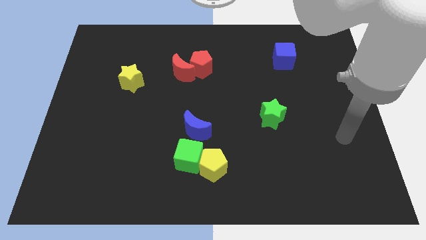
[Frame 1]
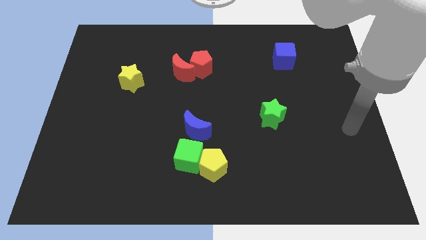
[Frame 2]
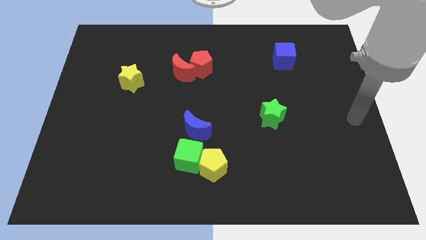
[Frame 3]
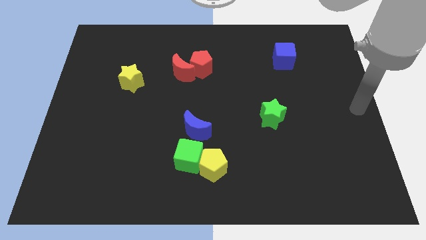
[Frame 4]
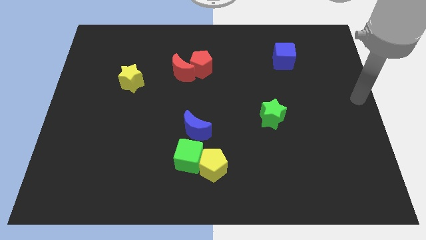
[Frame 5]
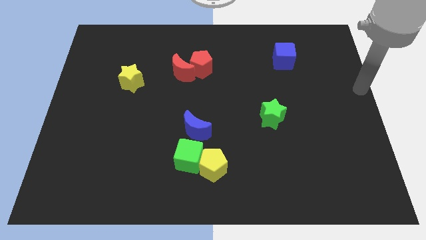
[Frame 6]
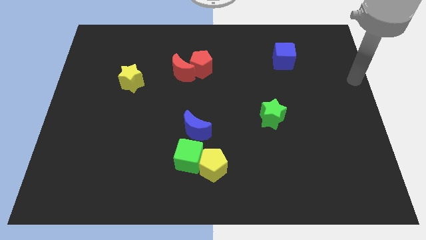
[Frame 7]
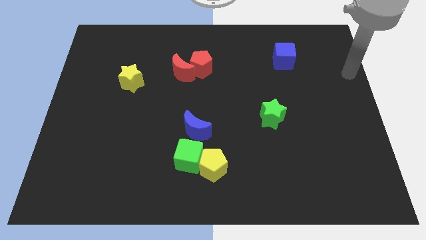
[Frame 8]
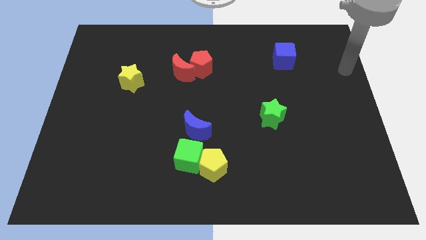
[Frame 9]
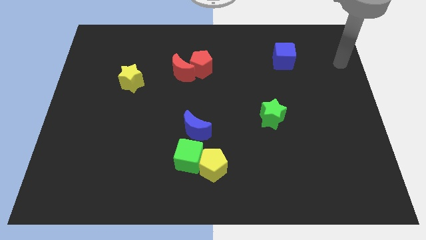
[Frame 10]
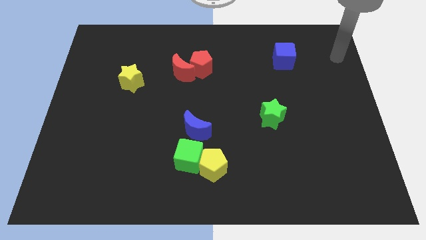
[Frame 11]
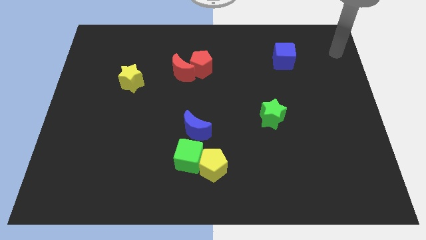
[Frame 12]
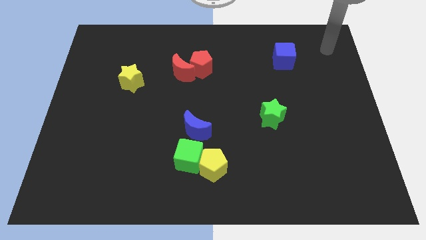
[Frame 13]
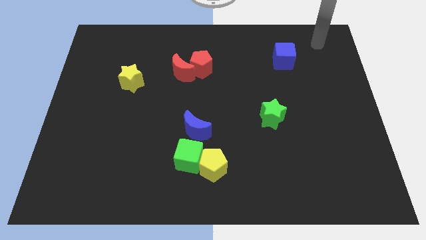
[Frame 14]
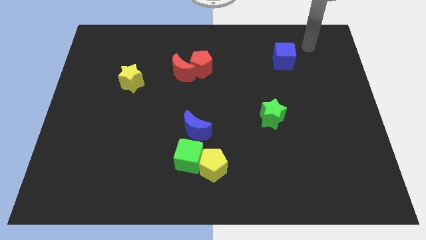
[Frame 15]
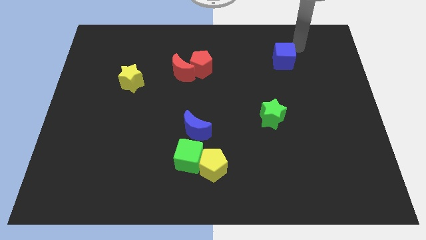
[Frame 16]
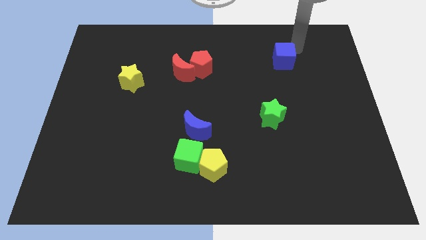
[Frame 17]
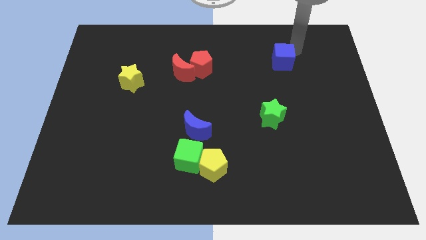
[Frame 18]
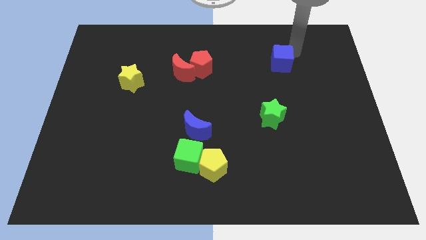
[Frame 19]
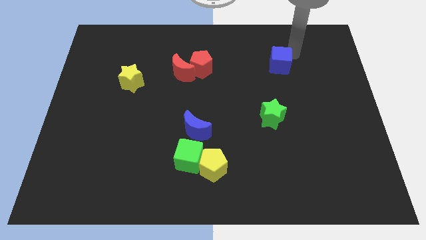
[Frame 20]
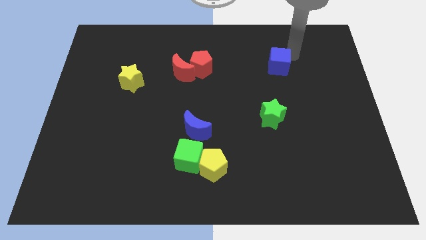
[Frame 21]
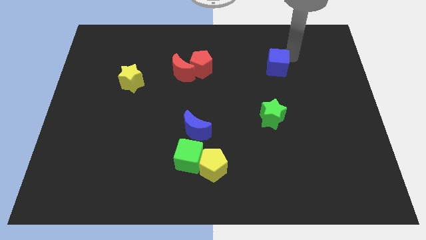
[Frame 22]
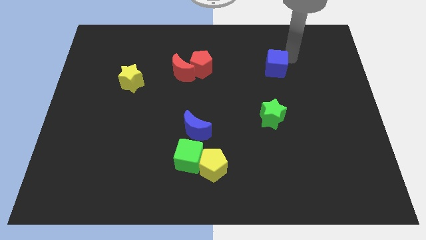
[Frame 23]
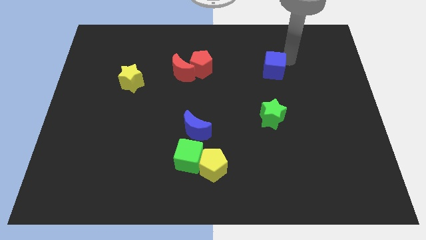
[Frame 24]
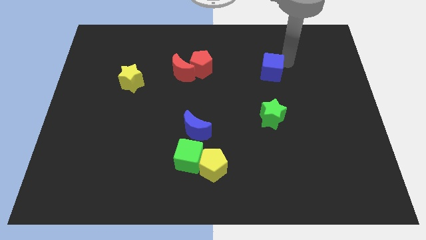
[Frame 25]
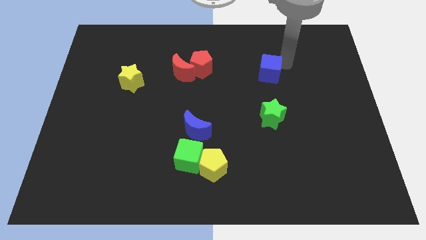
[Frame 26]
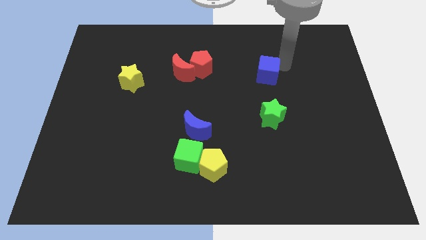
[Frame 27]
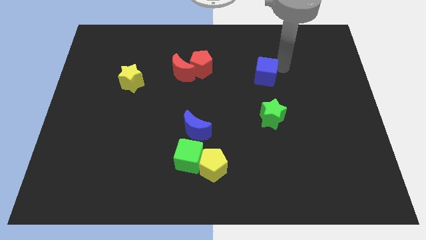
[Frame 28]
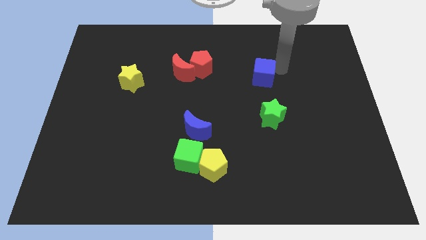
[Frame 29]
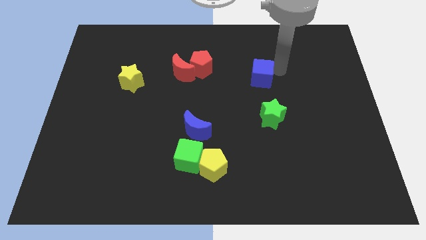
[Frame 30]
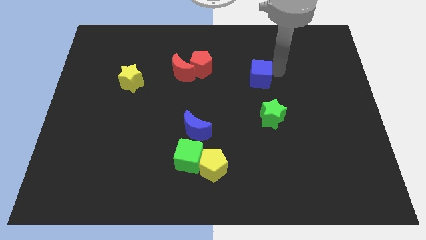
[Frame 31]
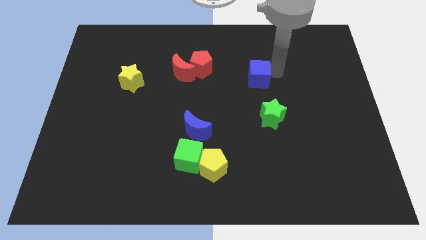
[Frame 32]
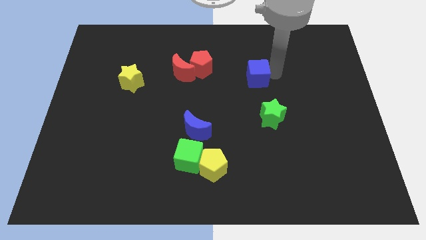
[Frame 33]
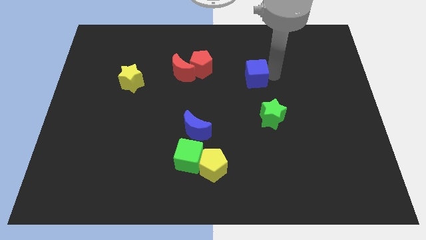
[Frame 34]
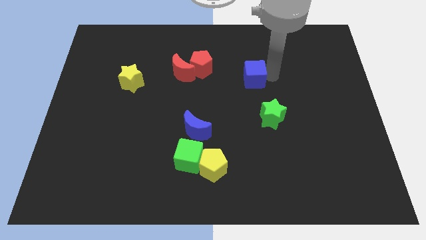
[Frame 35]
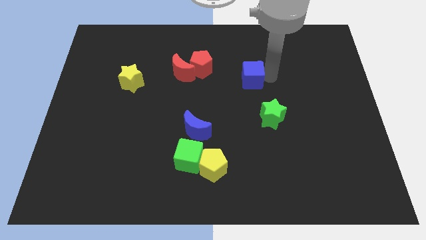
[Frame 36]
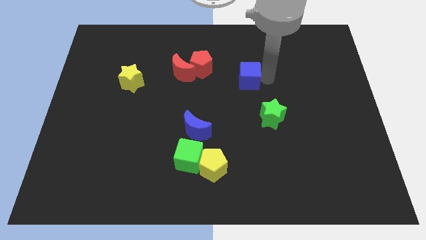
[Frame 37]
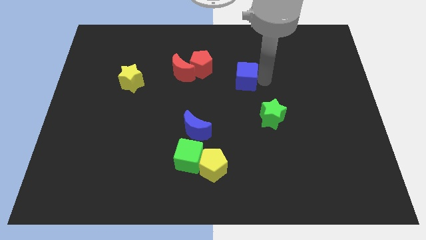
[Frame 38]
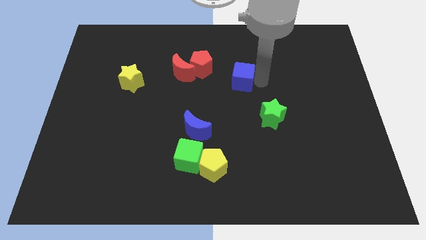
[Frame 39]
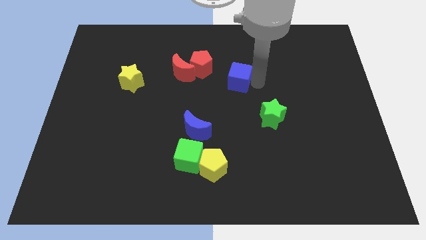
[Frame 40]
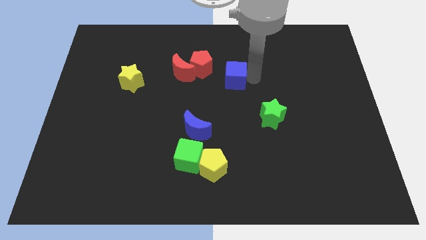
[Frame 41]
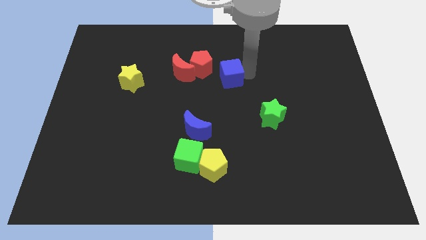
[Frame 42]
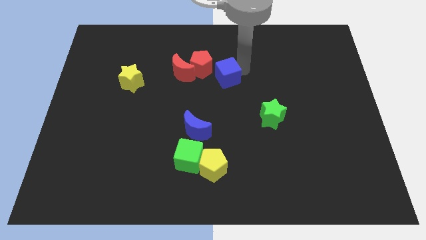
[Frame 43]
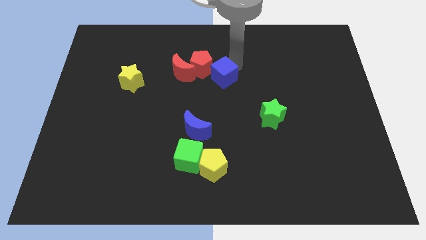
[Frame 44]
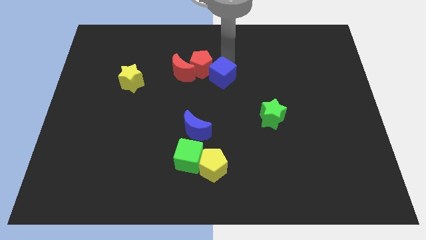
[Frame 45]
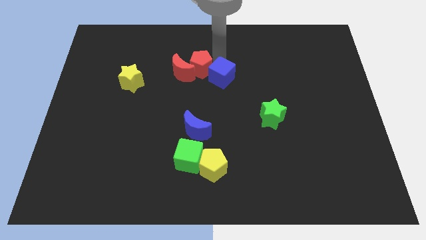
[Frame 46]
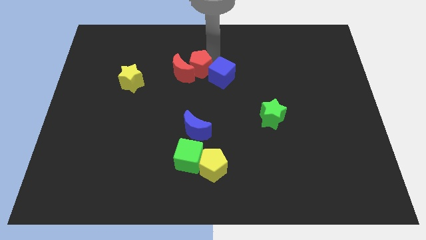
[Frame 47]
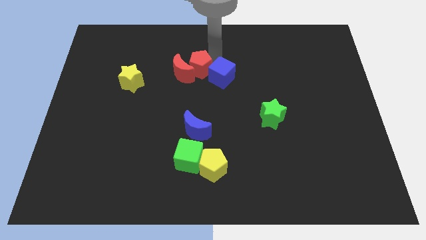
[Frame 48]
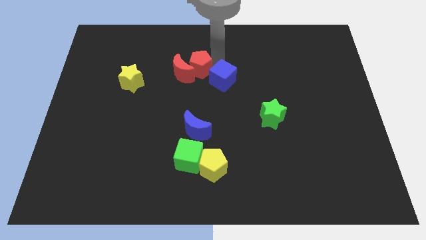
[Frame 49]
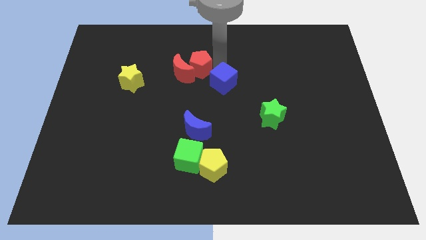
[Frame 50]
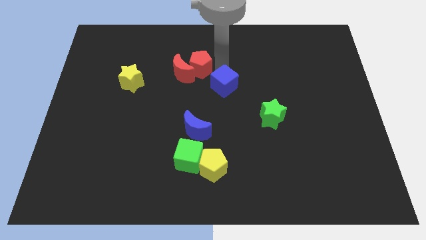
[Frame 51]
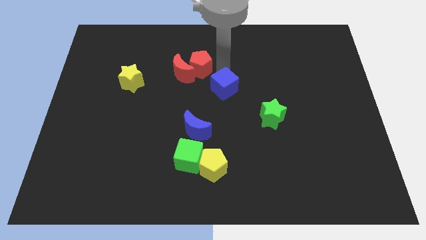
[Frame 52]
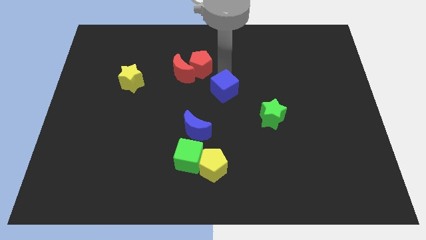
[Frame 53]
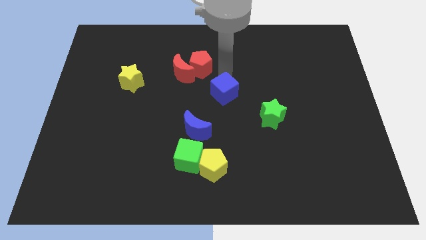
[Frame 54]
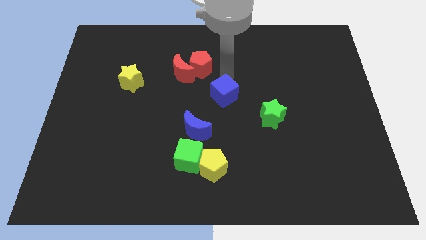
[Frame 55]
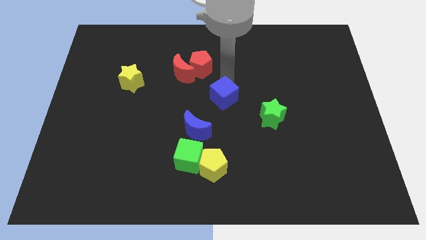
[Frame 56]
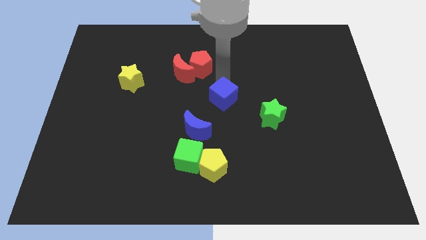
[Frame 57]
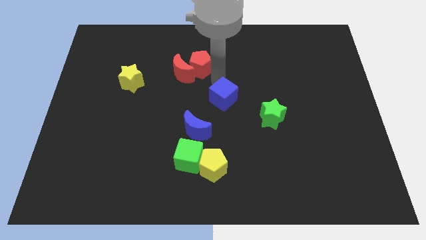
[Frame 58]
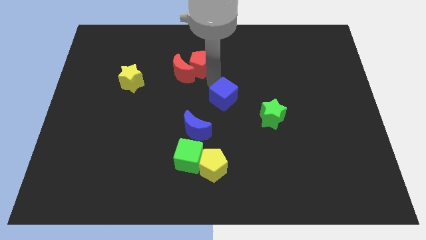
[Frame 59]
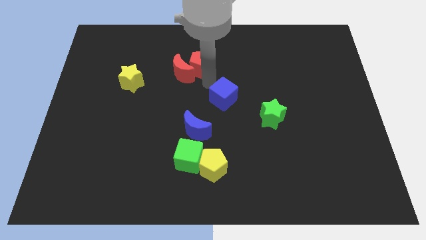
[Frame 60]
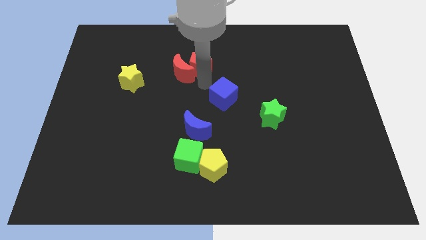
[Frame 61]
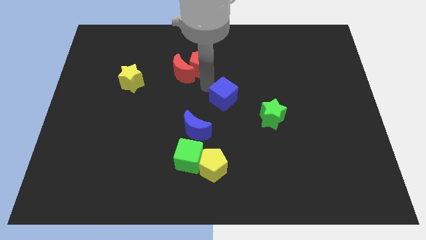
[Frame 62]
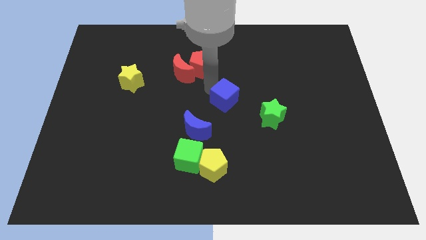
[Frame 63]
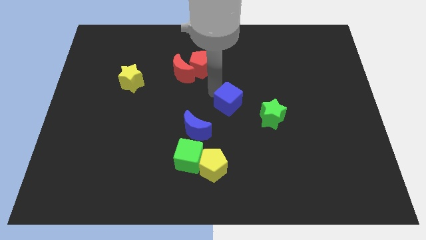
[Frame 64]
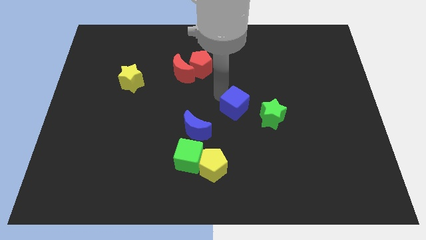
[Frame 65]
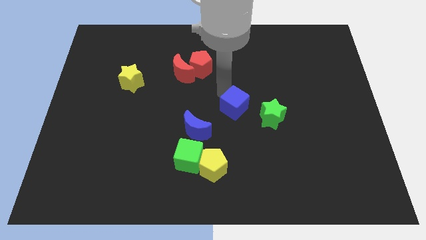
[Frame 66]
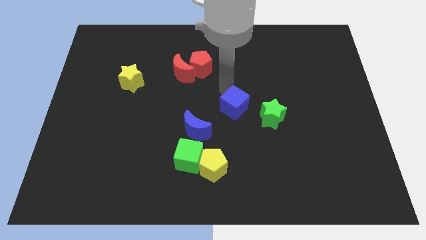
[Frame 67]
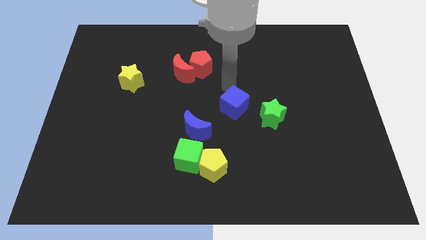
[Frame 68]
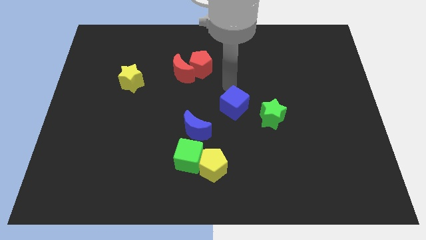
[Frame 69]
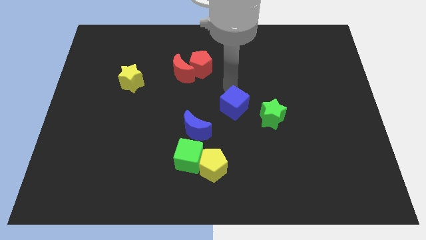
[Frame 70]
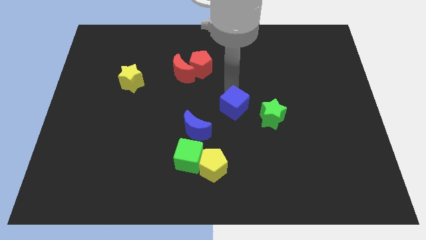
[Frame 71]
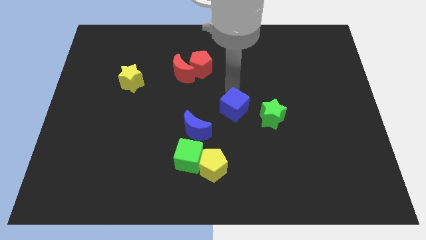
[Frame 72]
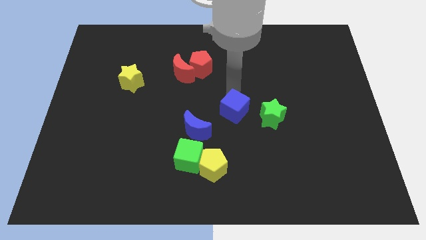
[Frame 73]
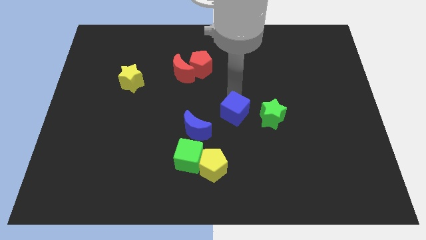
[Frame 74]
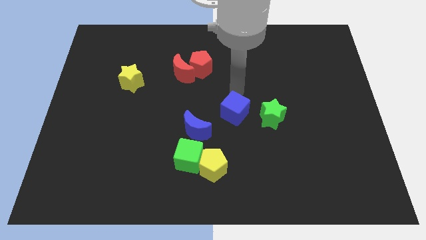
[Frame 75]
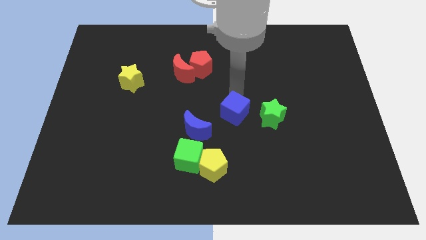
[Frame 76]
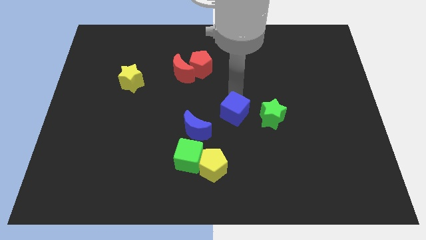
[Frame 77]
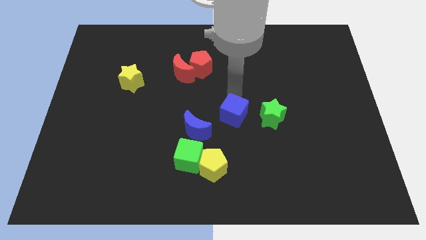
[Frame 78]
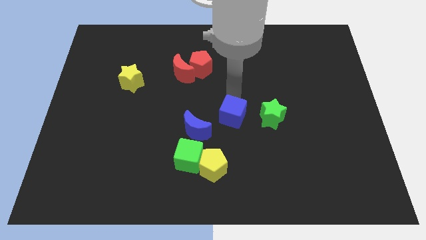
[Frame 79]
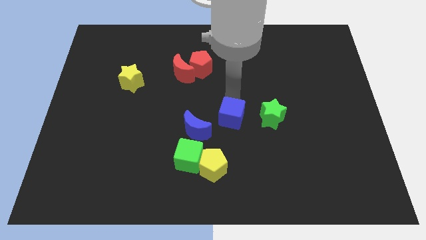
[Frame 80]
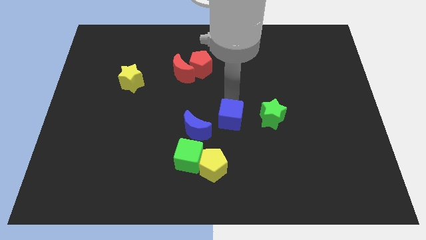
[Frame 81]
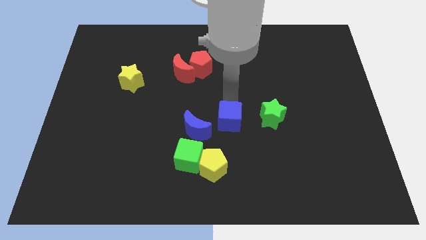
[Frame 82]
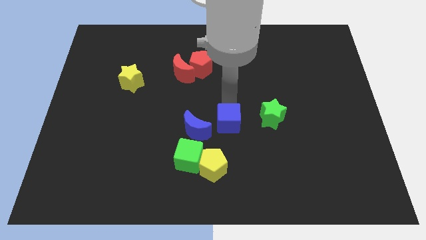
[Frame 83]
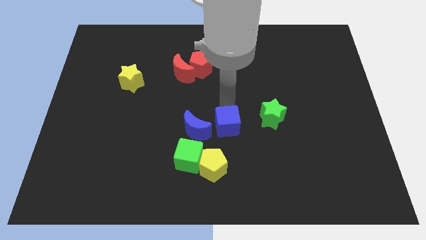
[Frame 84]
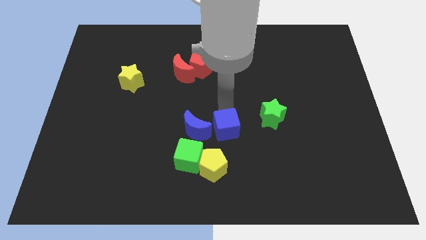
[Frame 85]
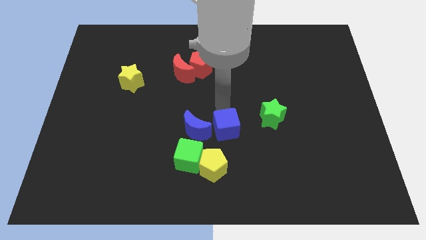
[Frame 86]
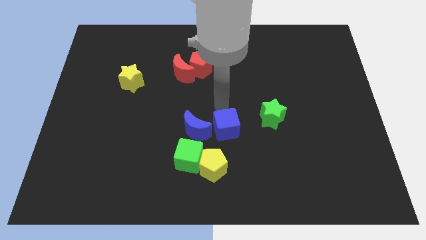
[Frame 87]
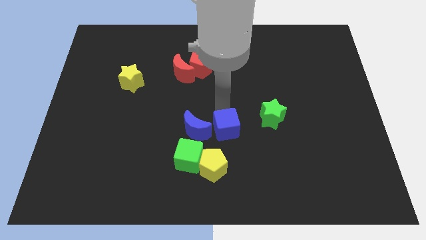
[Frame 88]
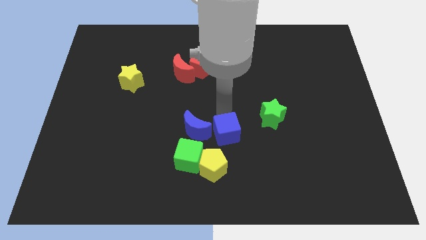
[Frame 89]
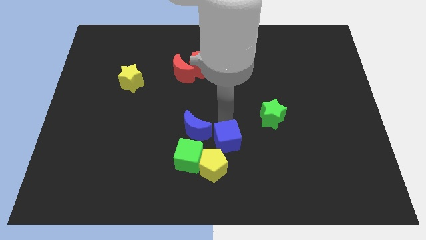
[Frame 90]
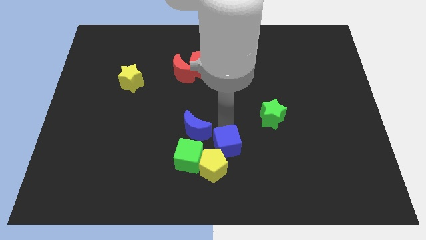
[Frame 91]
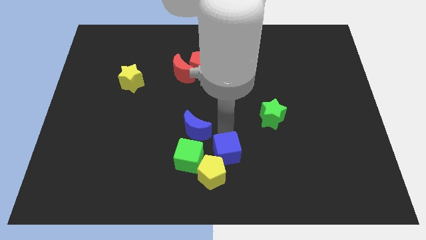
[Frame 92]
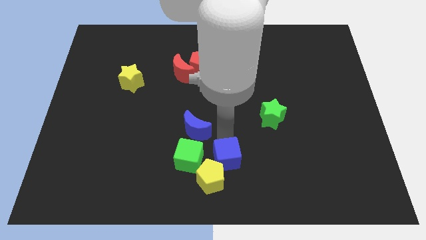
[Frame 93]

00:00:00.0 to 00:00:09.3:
put the blue cube to the bottom
